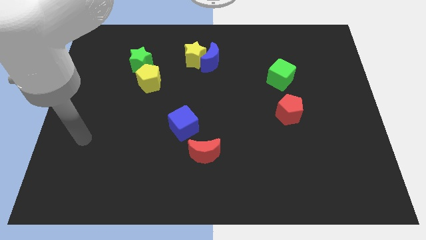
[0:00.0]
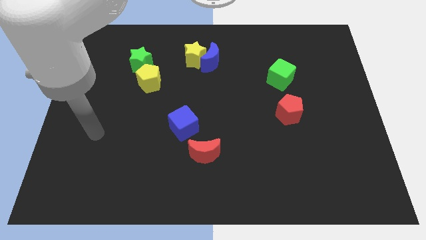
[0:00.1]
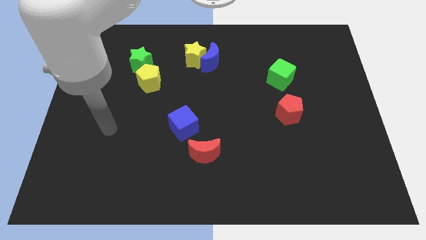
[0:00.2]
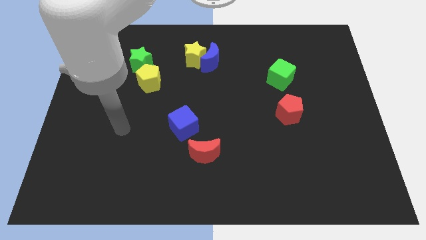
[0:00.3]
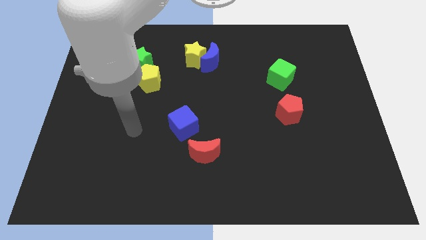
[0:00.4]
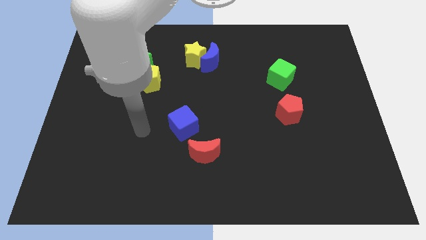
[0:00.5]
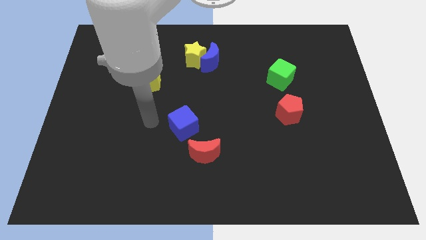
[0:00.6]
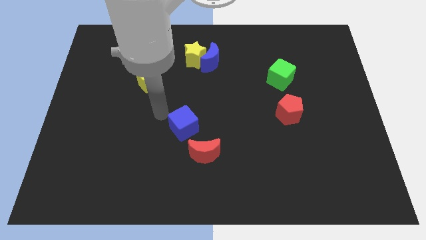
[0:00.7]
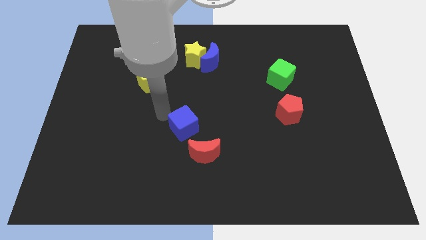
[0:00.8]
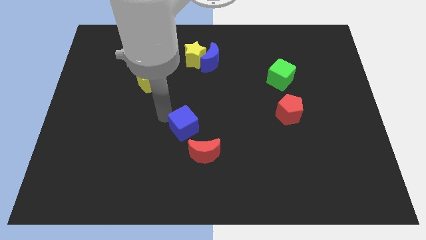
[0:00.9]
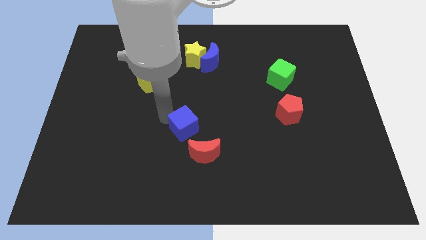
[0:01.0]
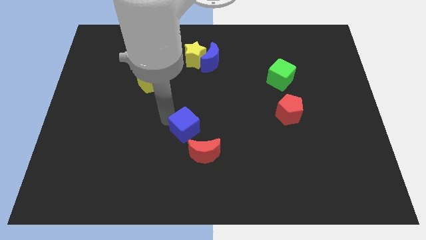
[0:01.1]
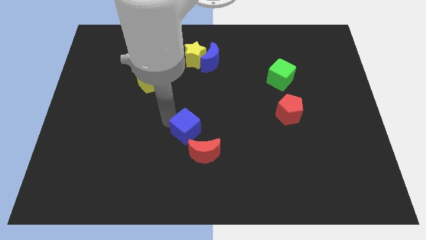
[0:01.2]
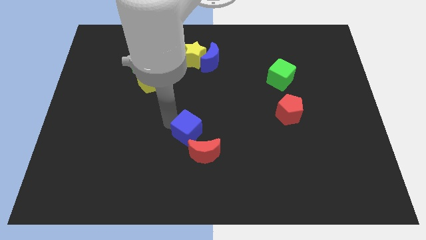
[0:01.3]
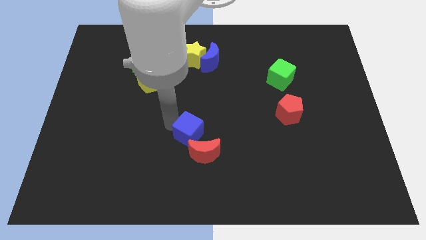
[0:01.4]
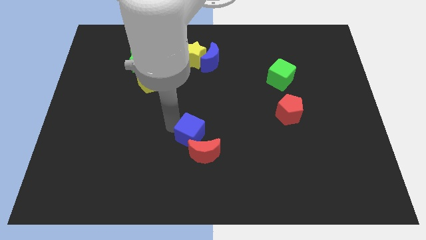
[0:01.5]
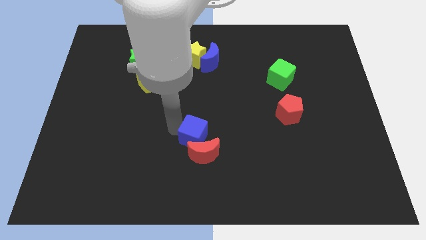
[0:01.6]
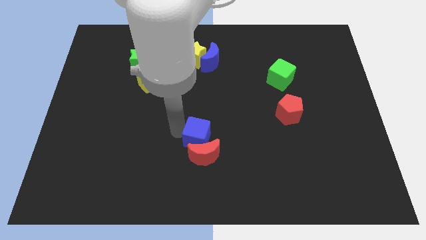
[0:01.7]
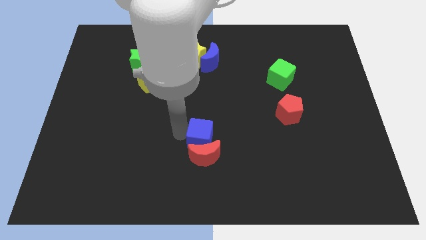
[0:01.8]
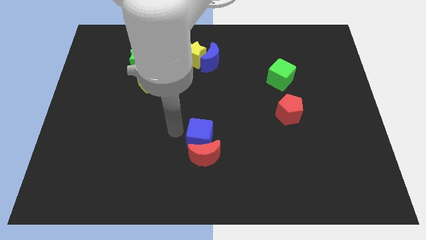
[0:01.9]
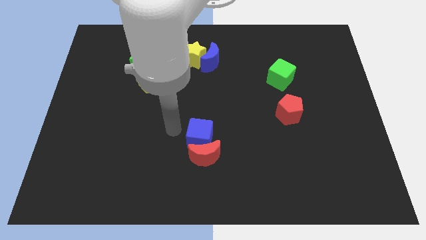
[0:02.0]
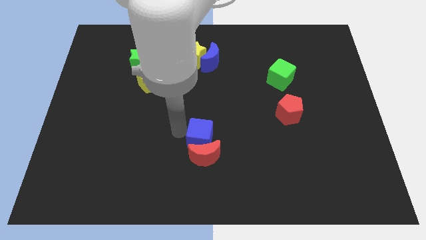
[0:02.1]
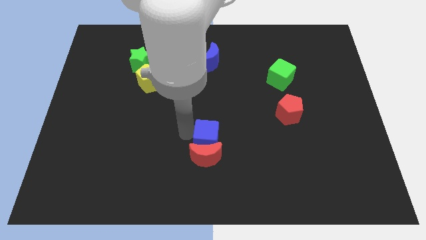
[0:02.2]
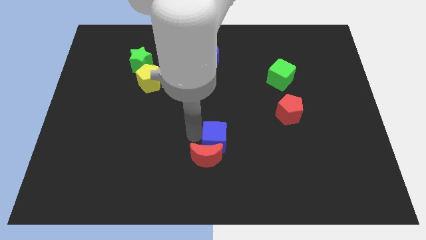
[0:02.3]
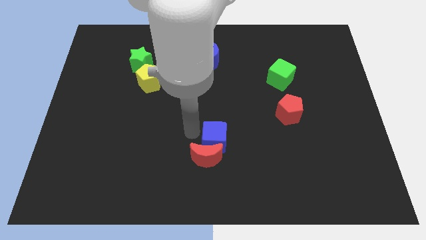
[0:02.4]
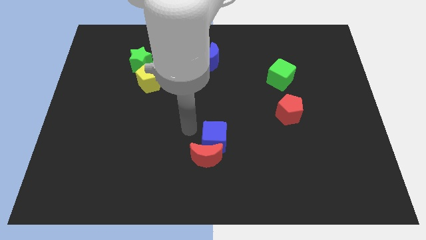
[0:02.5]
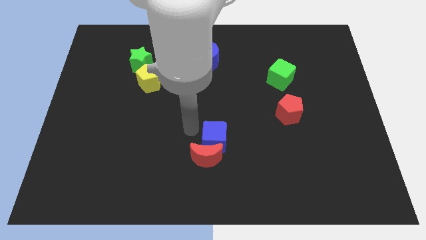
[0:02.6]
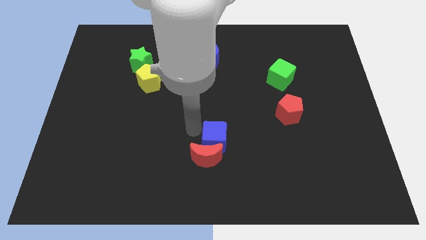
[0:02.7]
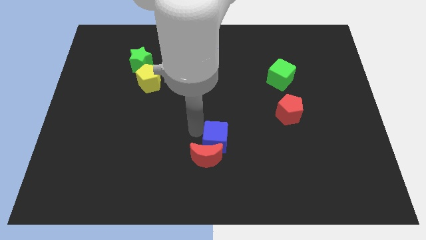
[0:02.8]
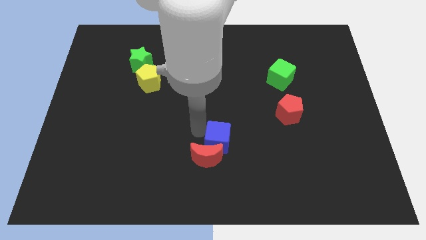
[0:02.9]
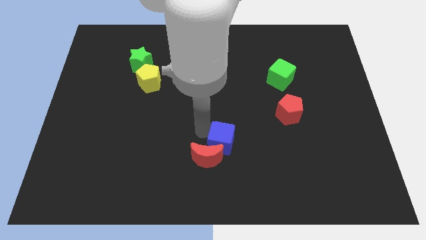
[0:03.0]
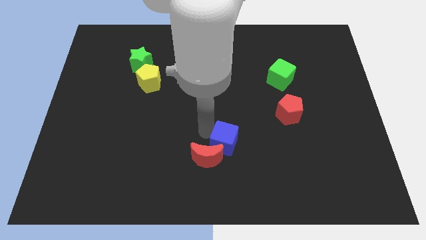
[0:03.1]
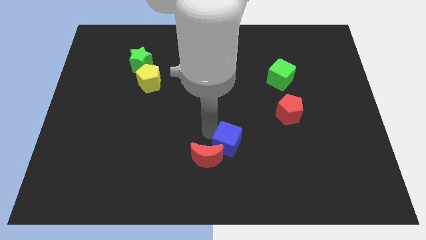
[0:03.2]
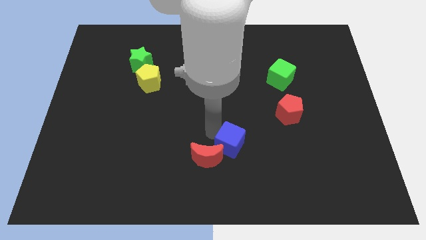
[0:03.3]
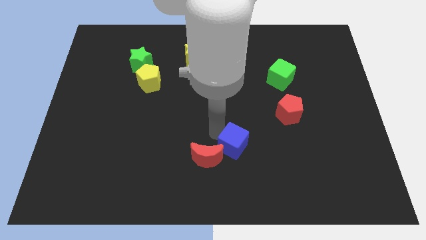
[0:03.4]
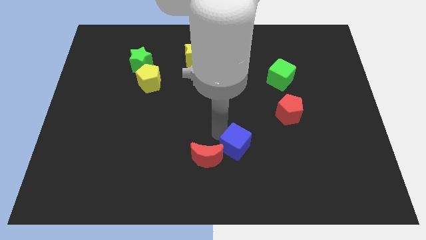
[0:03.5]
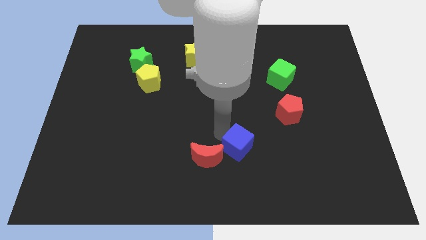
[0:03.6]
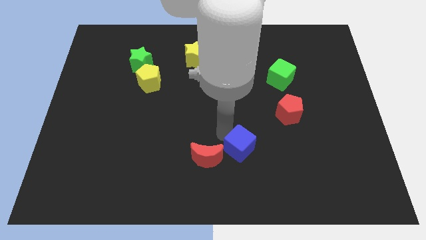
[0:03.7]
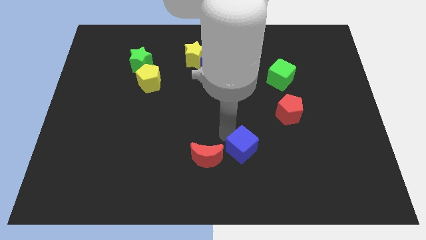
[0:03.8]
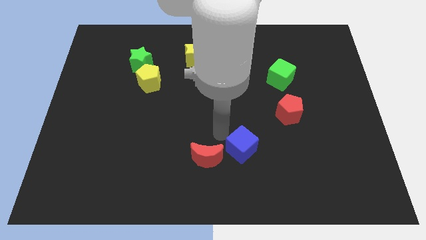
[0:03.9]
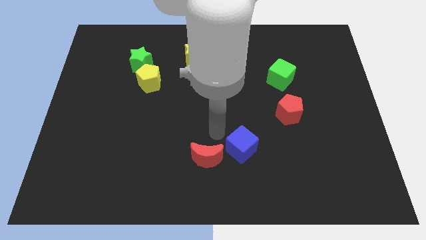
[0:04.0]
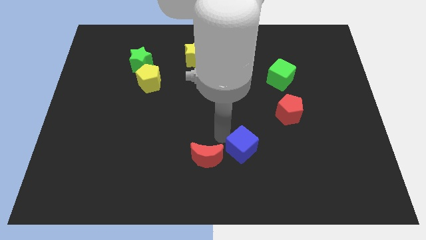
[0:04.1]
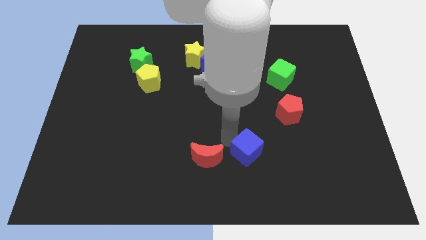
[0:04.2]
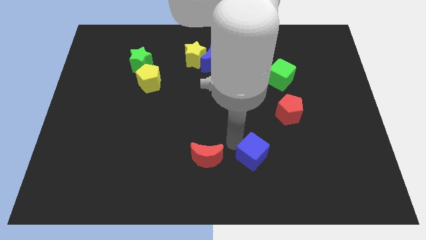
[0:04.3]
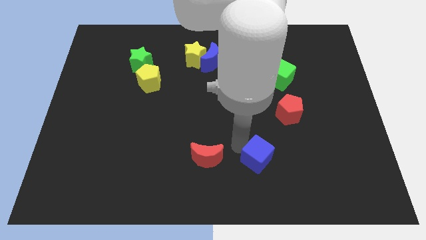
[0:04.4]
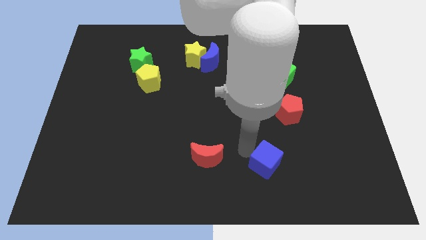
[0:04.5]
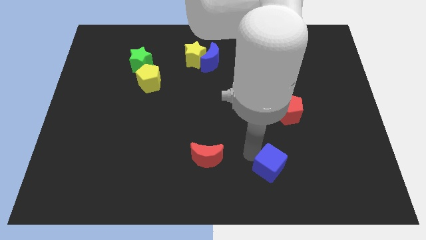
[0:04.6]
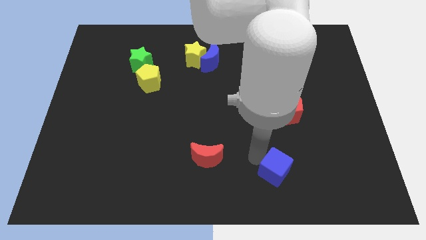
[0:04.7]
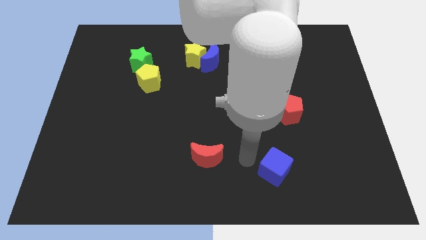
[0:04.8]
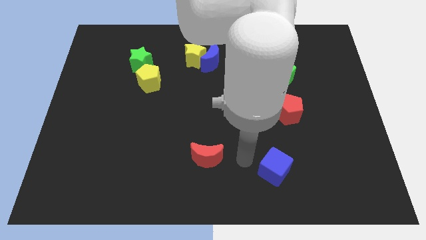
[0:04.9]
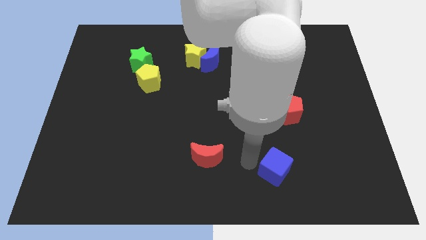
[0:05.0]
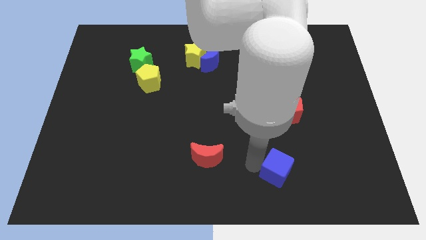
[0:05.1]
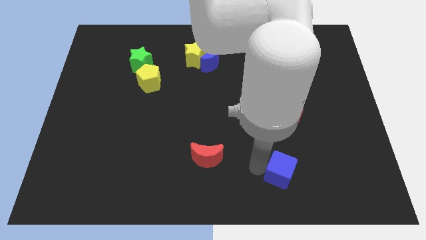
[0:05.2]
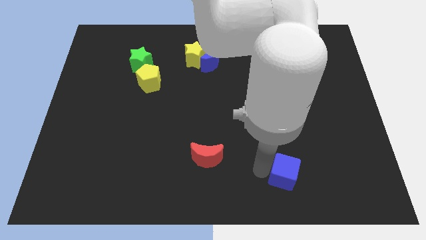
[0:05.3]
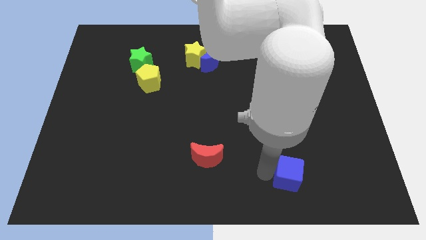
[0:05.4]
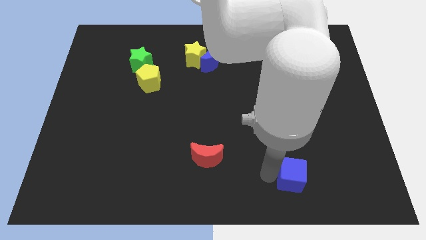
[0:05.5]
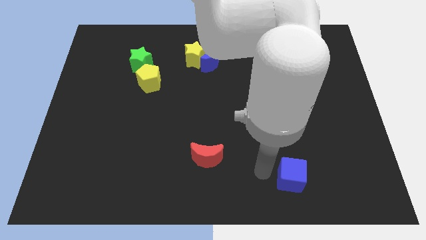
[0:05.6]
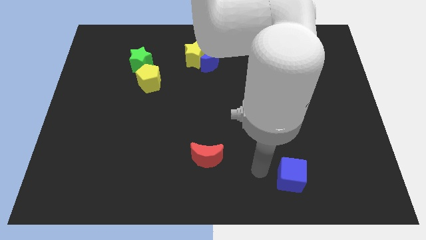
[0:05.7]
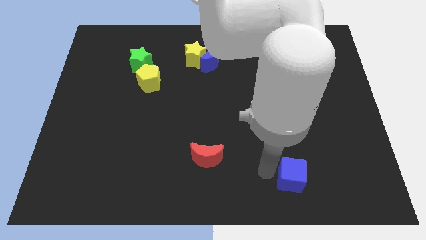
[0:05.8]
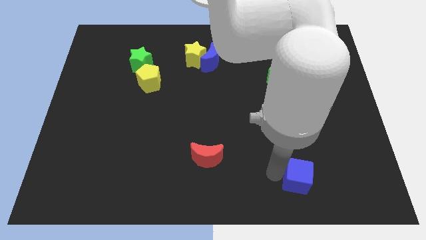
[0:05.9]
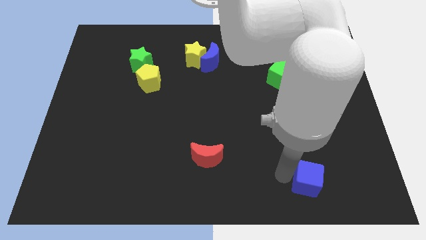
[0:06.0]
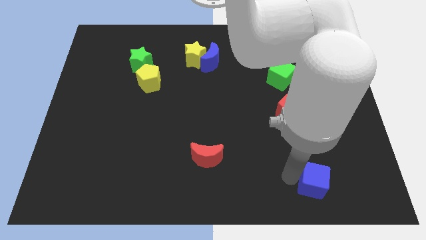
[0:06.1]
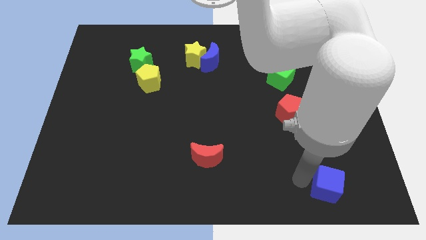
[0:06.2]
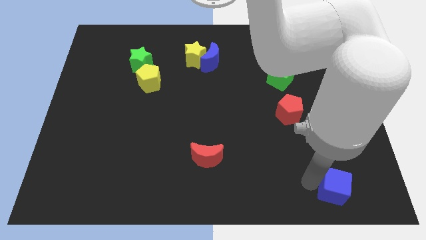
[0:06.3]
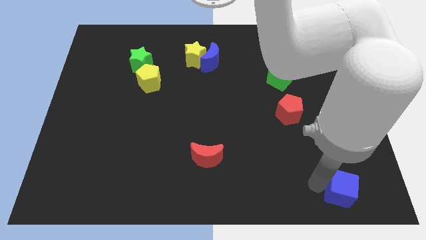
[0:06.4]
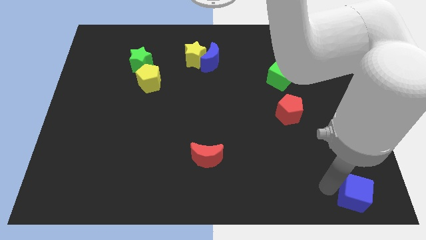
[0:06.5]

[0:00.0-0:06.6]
slide the blue cube to the bottom right
